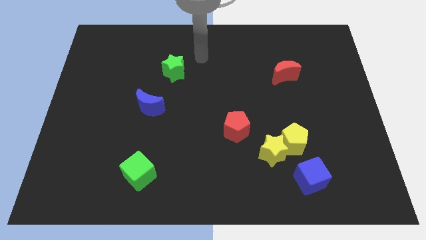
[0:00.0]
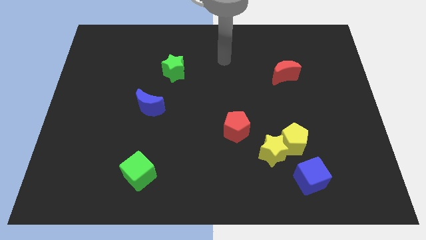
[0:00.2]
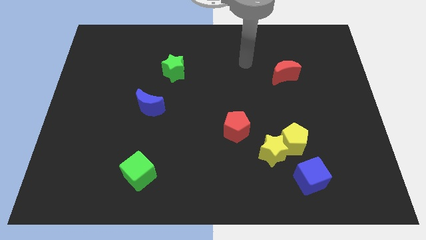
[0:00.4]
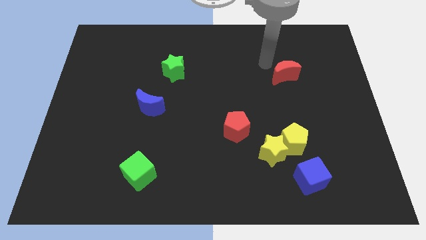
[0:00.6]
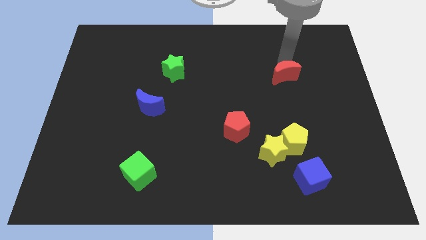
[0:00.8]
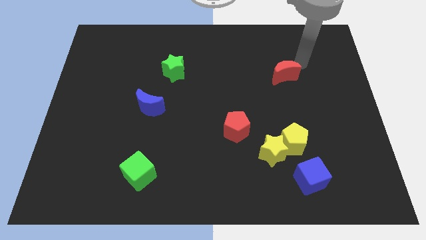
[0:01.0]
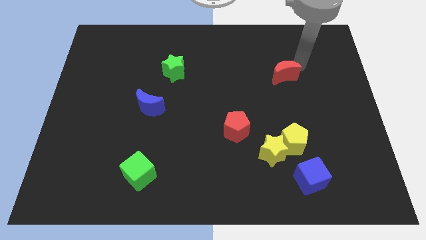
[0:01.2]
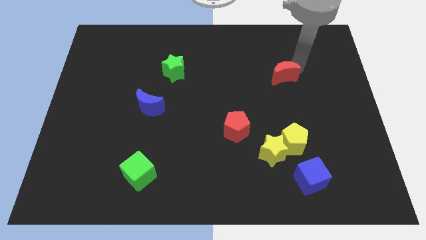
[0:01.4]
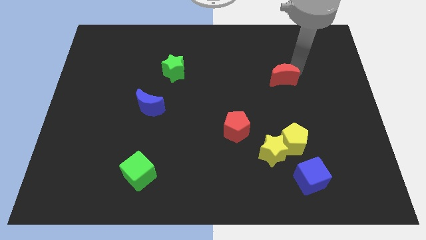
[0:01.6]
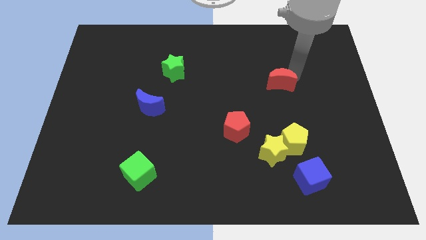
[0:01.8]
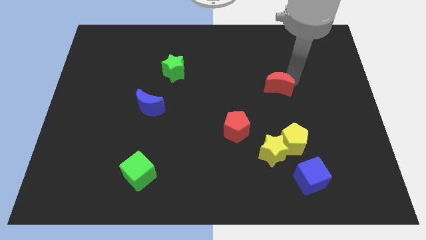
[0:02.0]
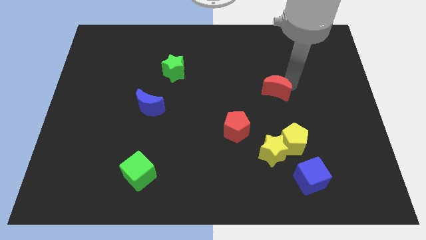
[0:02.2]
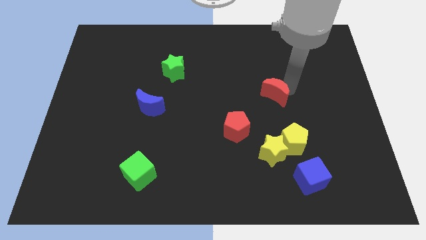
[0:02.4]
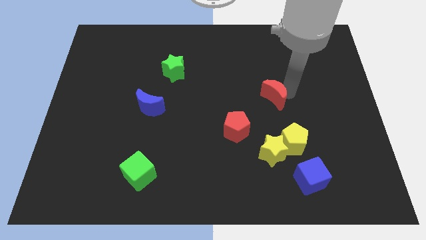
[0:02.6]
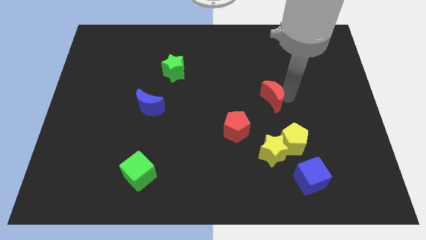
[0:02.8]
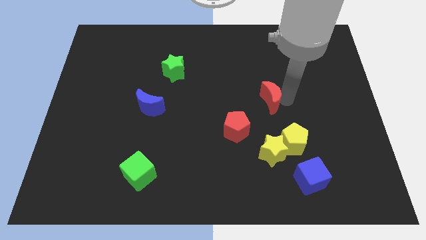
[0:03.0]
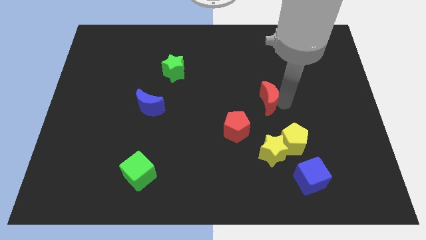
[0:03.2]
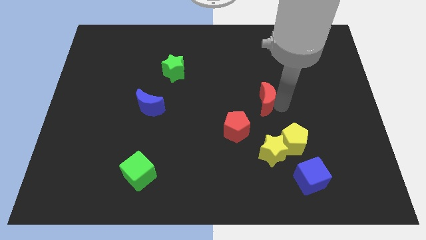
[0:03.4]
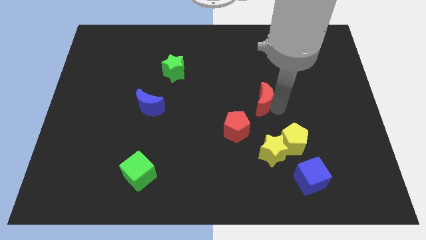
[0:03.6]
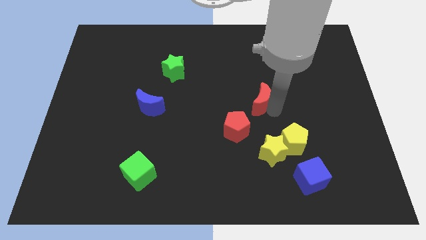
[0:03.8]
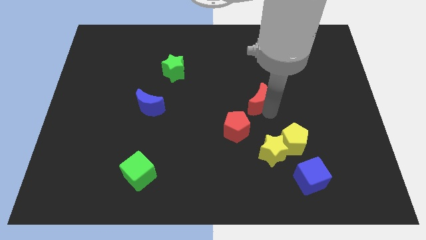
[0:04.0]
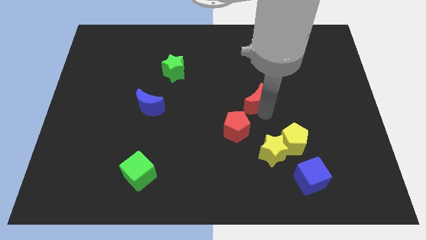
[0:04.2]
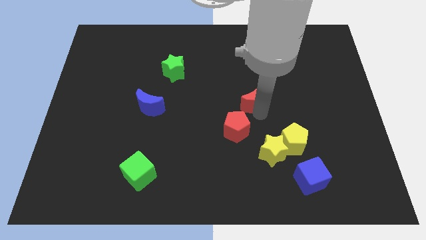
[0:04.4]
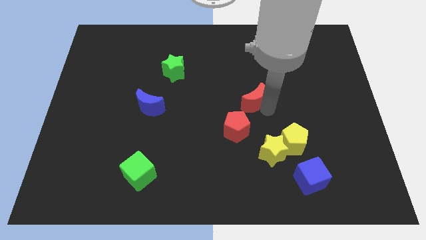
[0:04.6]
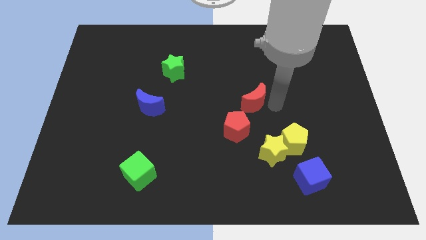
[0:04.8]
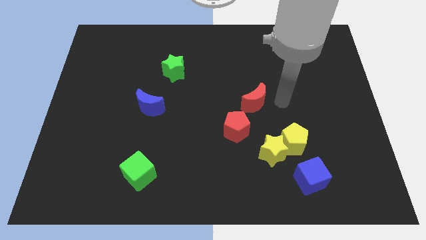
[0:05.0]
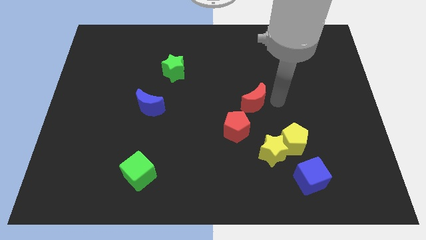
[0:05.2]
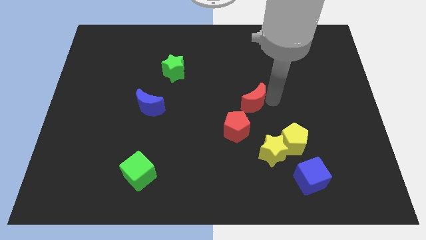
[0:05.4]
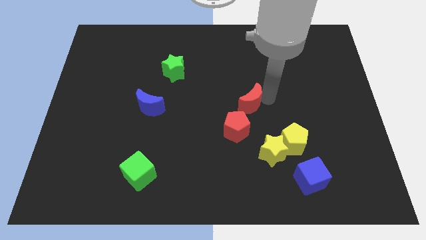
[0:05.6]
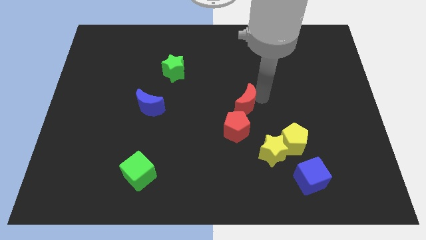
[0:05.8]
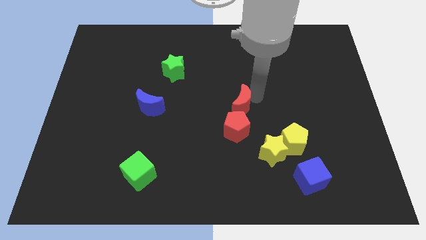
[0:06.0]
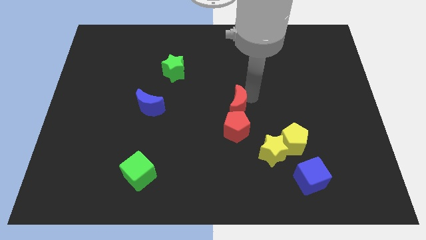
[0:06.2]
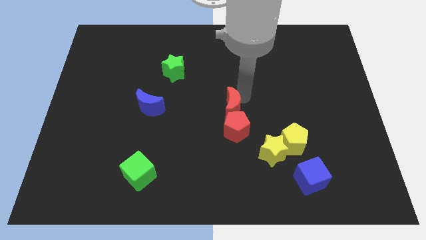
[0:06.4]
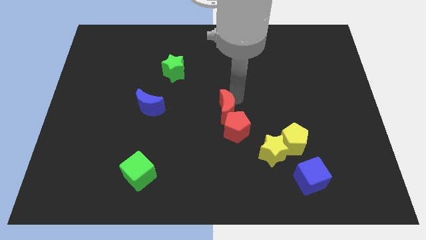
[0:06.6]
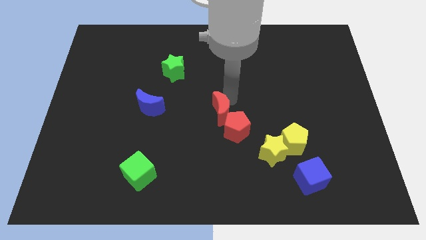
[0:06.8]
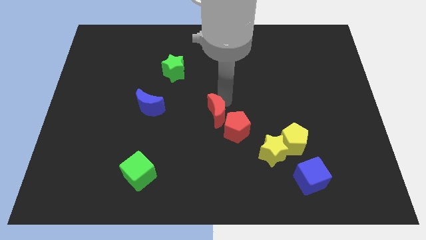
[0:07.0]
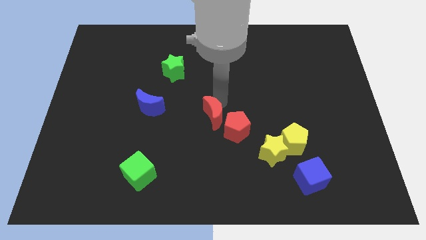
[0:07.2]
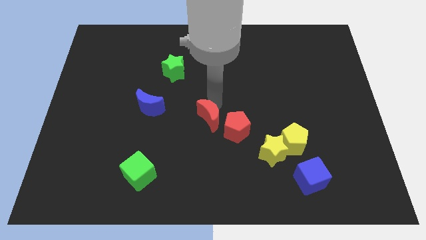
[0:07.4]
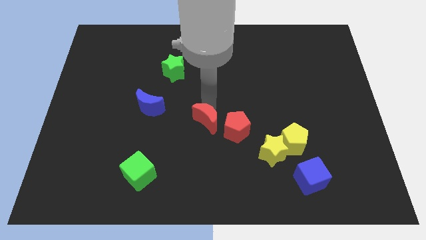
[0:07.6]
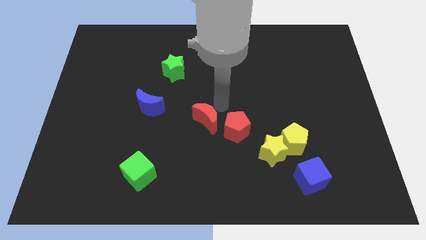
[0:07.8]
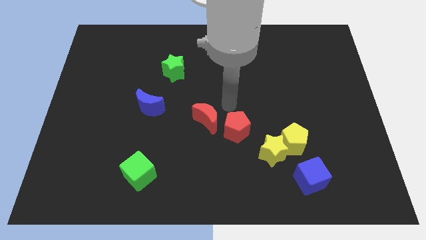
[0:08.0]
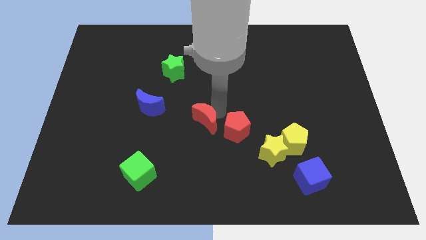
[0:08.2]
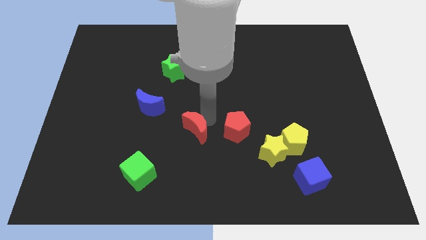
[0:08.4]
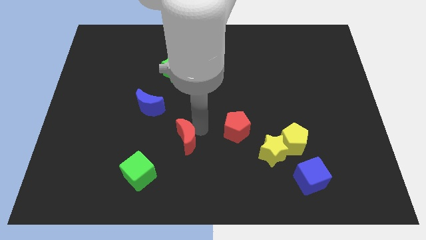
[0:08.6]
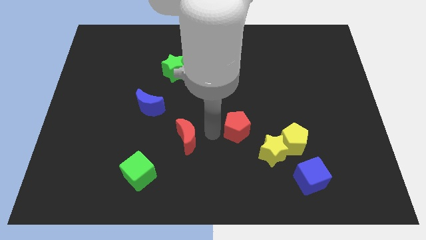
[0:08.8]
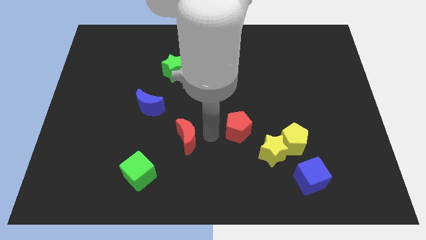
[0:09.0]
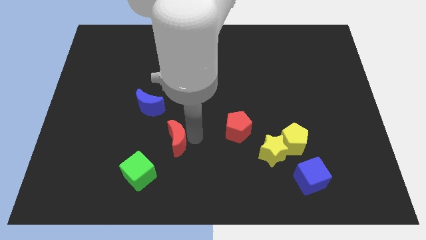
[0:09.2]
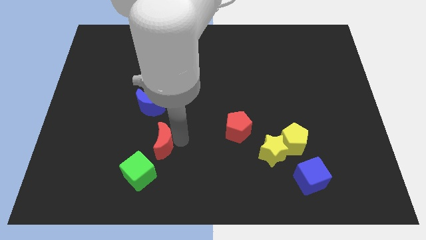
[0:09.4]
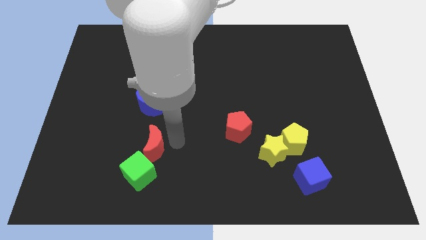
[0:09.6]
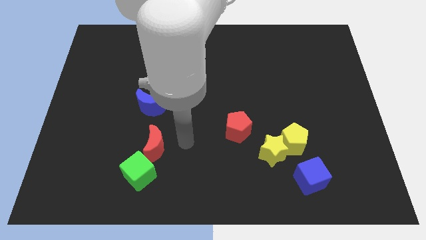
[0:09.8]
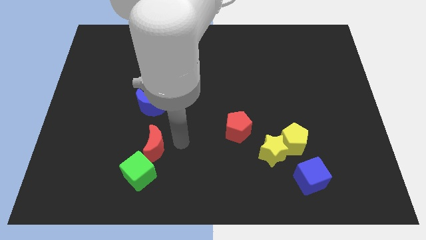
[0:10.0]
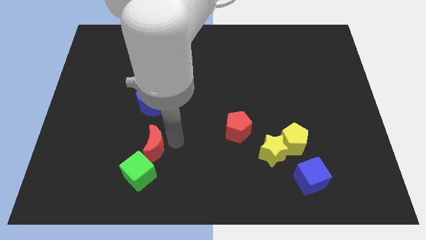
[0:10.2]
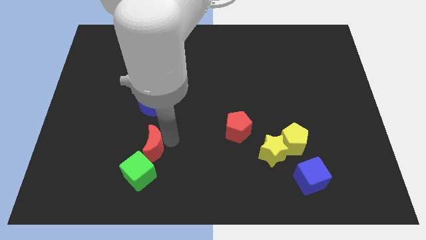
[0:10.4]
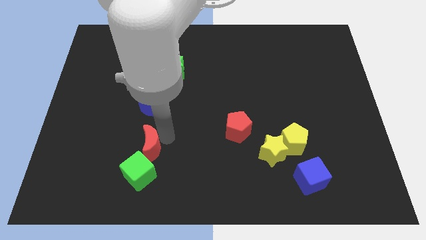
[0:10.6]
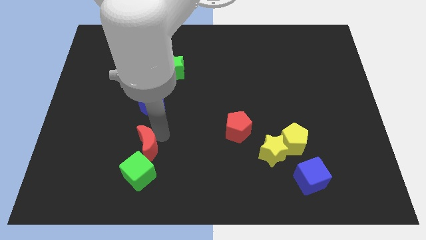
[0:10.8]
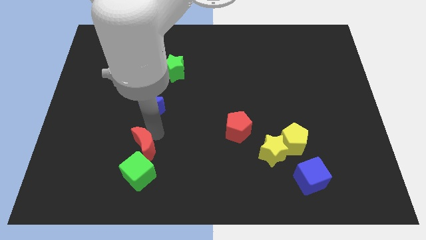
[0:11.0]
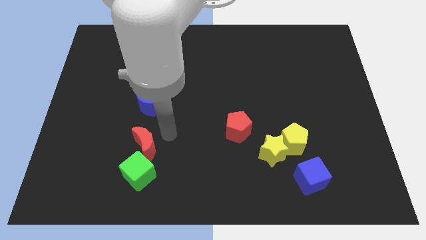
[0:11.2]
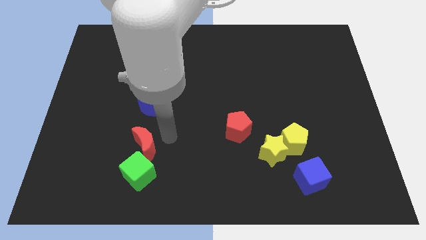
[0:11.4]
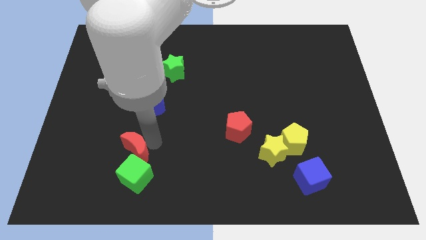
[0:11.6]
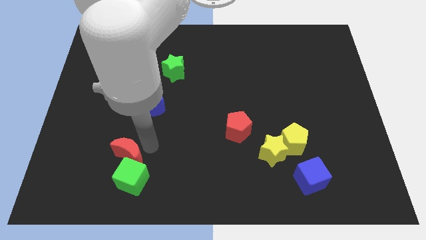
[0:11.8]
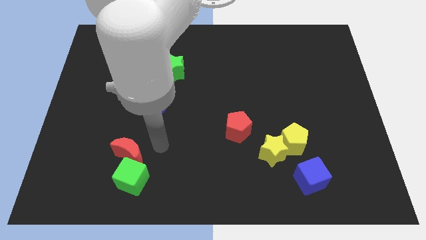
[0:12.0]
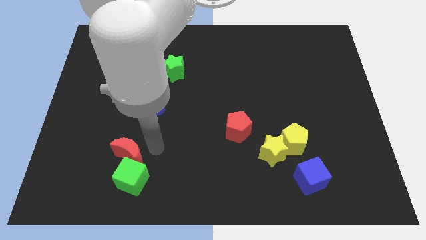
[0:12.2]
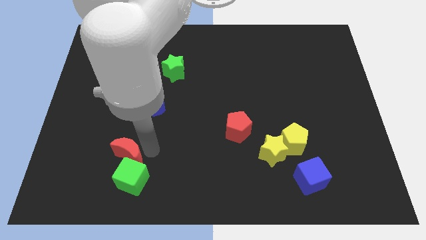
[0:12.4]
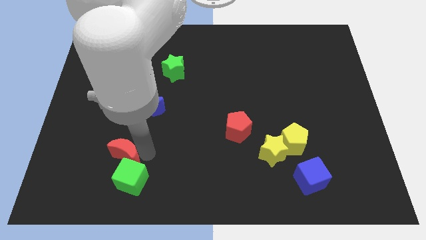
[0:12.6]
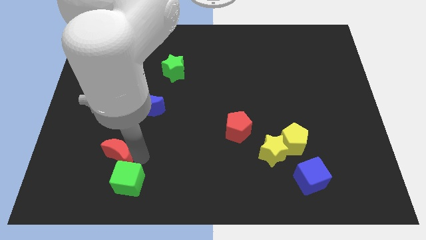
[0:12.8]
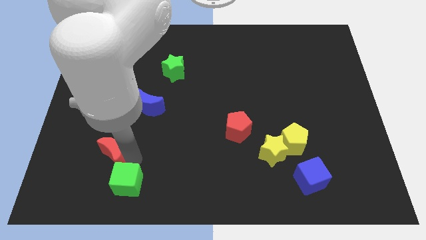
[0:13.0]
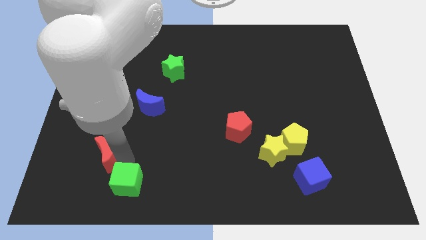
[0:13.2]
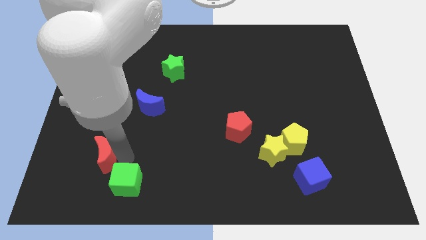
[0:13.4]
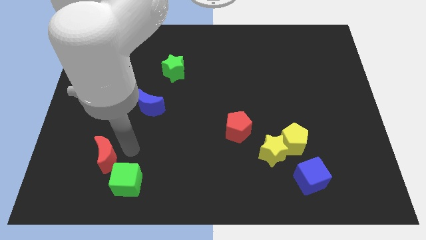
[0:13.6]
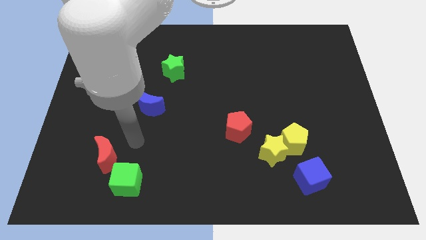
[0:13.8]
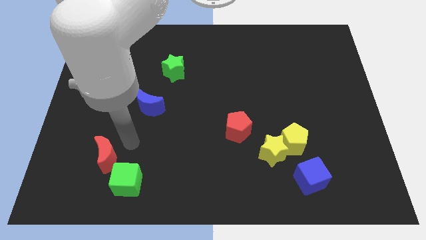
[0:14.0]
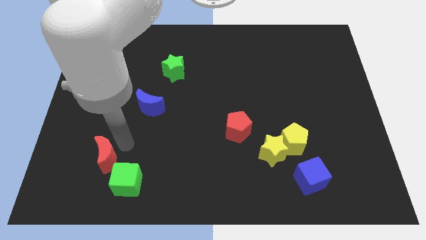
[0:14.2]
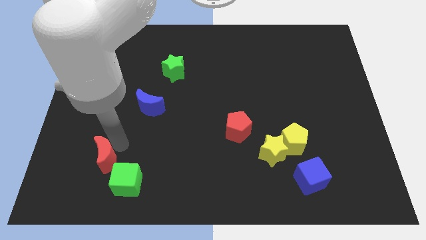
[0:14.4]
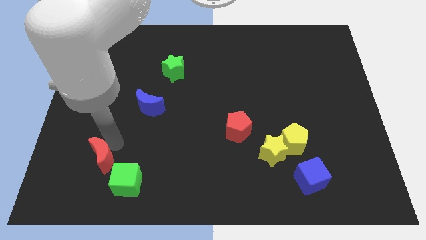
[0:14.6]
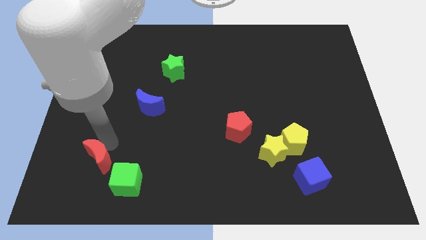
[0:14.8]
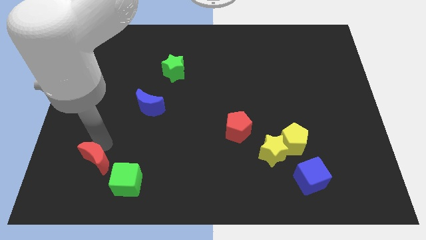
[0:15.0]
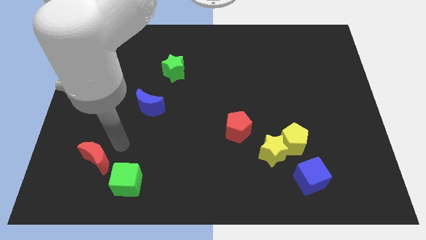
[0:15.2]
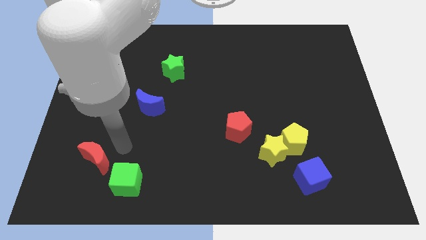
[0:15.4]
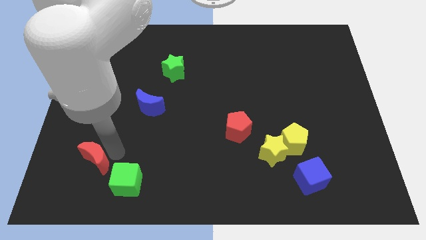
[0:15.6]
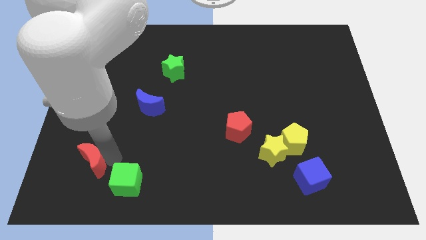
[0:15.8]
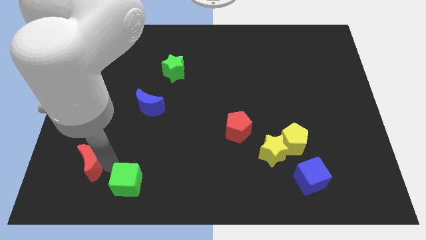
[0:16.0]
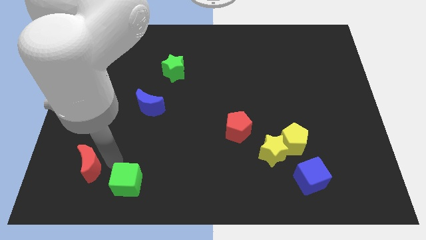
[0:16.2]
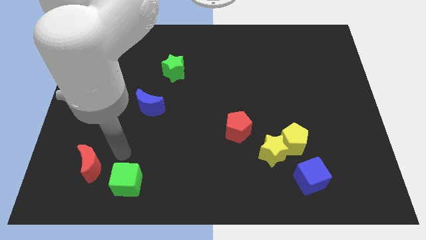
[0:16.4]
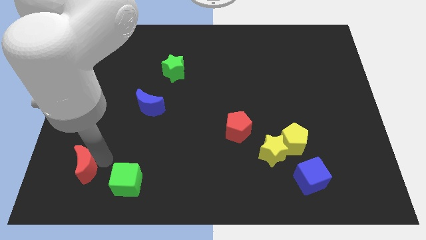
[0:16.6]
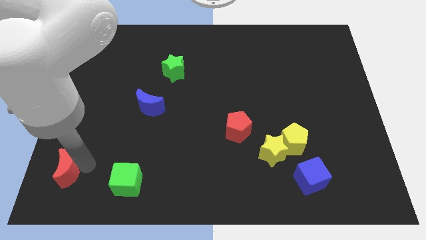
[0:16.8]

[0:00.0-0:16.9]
put the red moon to the bottom left of the board
